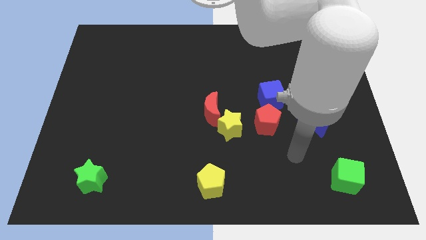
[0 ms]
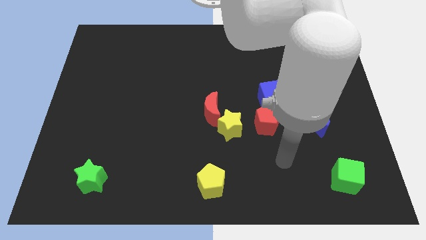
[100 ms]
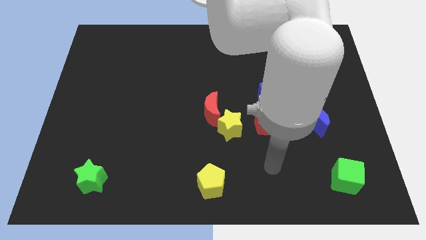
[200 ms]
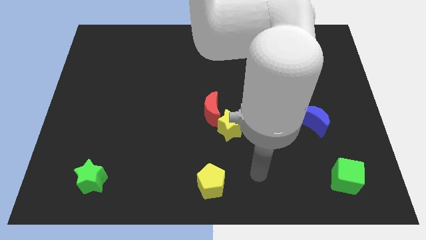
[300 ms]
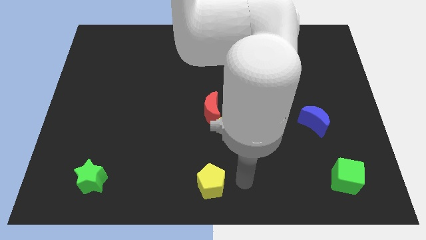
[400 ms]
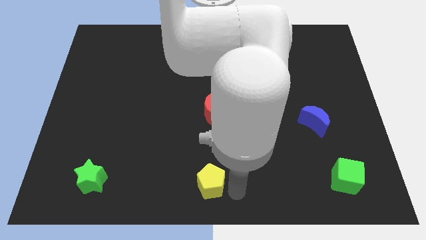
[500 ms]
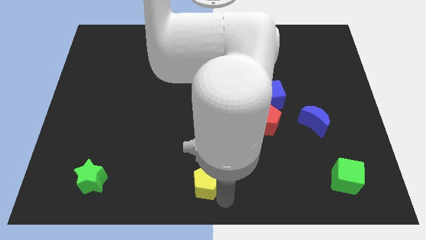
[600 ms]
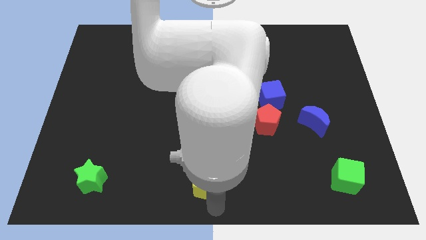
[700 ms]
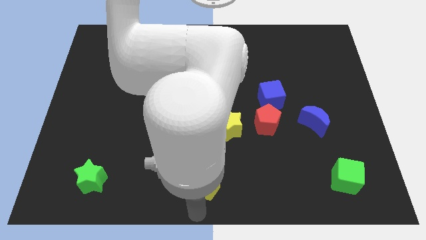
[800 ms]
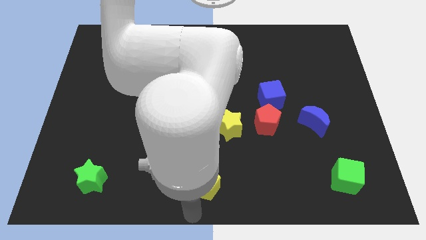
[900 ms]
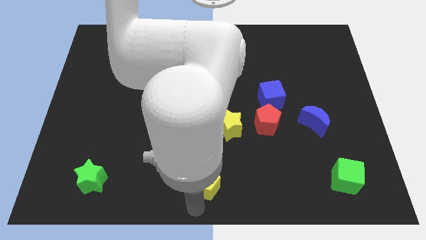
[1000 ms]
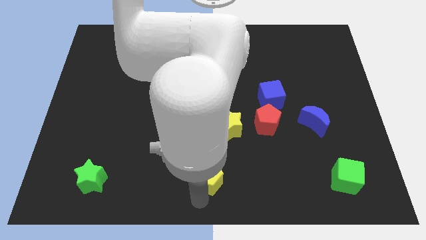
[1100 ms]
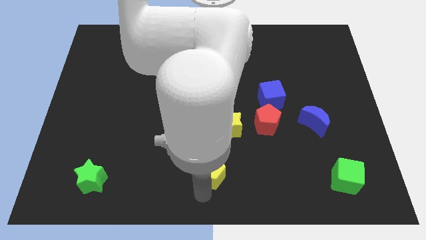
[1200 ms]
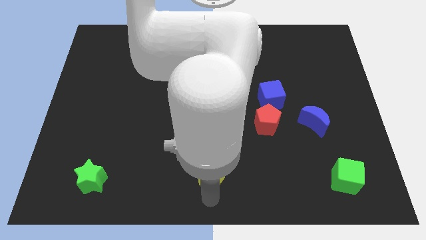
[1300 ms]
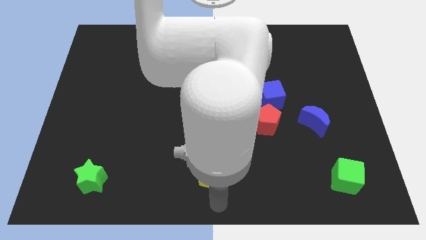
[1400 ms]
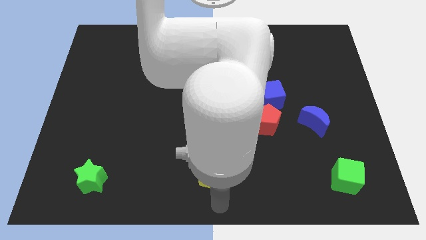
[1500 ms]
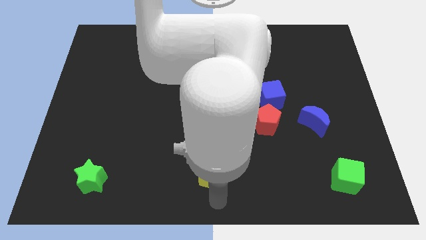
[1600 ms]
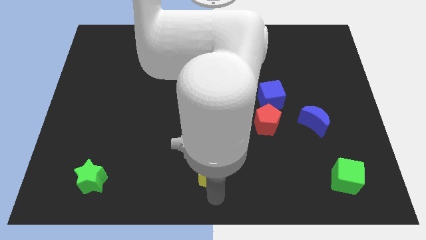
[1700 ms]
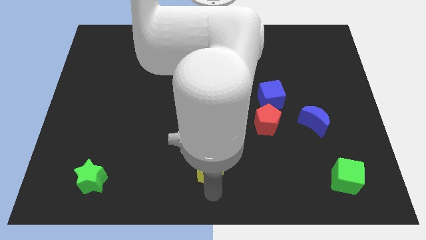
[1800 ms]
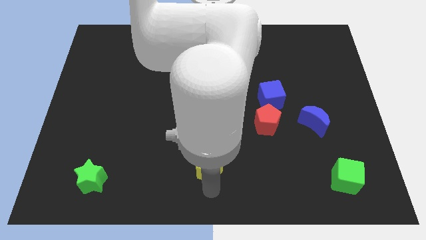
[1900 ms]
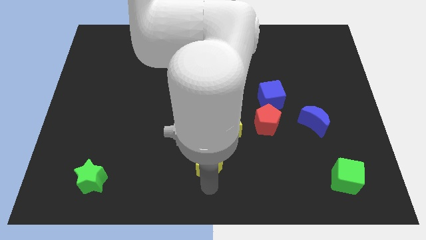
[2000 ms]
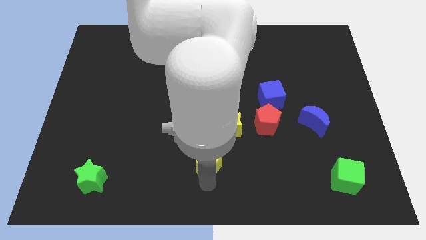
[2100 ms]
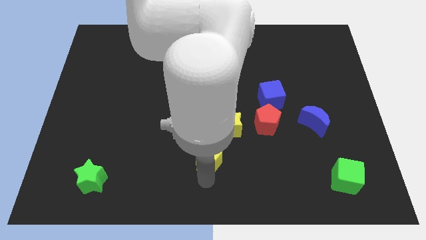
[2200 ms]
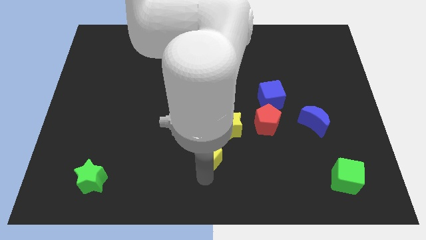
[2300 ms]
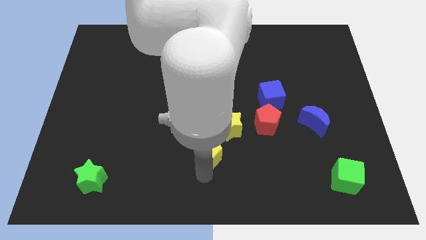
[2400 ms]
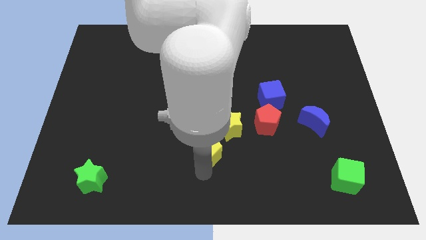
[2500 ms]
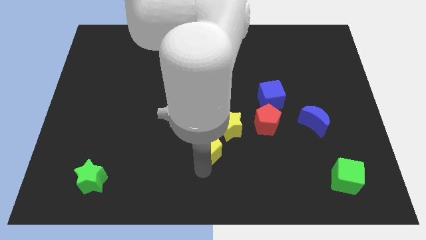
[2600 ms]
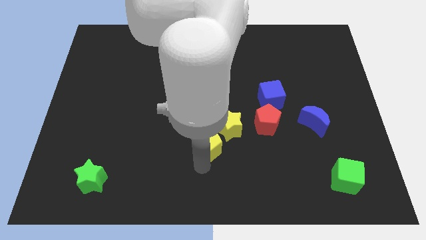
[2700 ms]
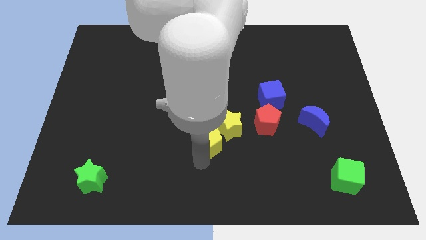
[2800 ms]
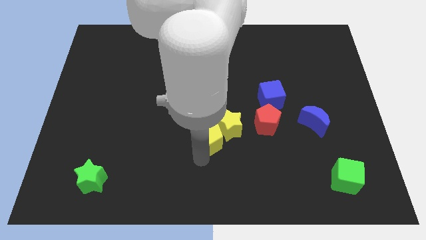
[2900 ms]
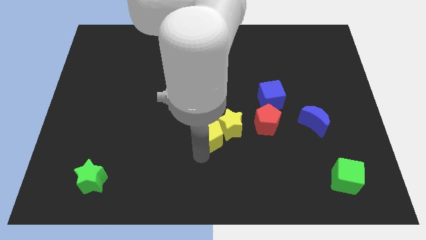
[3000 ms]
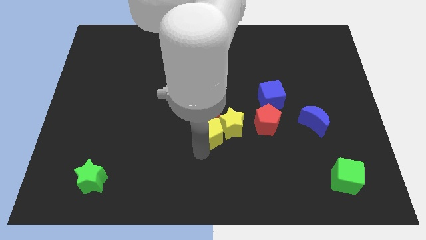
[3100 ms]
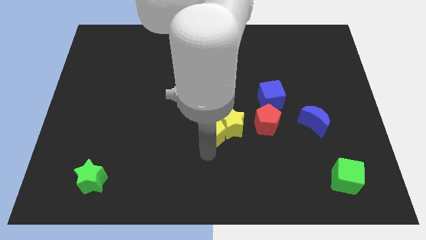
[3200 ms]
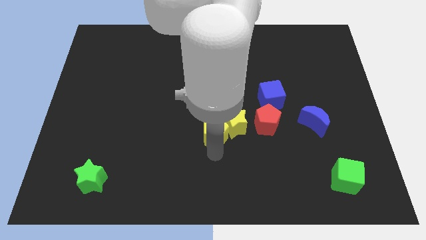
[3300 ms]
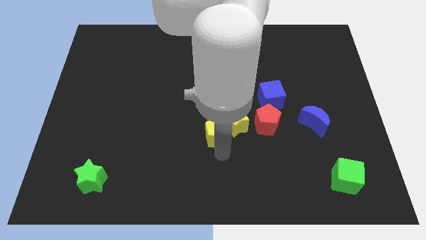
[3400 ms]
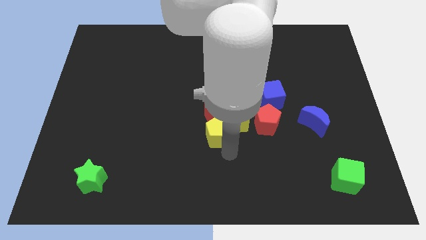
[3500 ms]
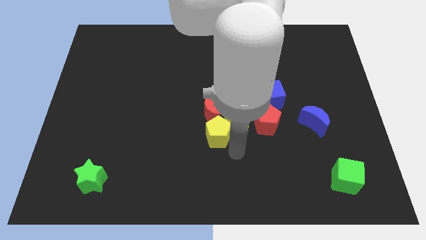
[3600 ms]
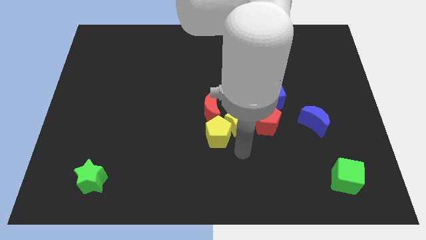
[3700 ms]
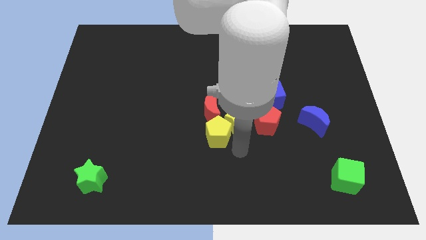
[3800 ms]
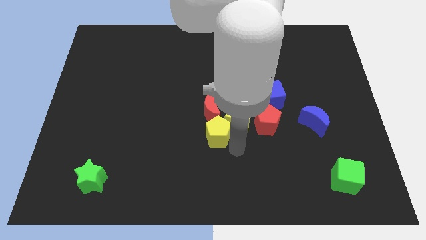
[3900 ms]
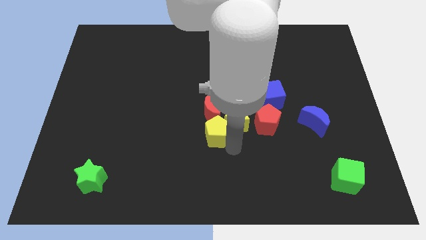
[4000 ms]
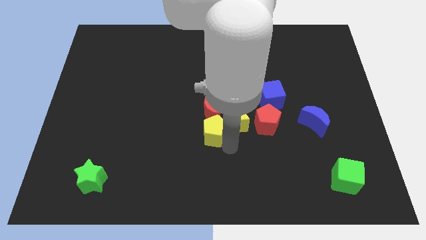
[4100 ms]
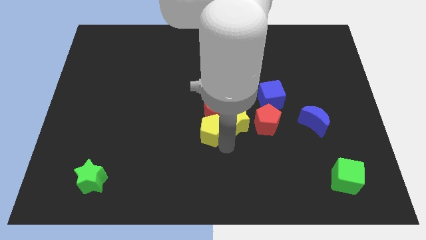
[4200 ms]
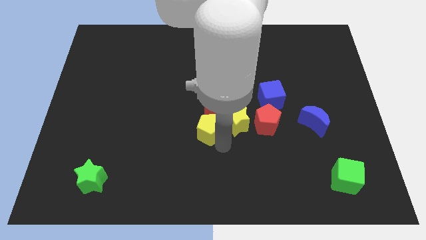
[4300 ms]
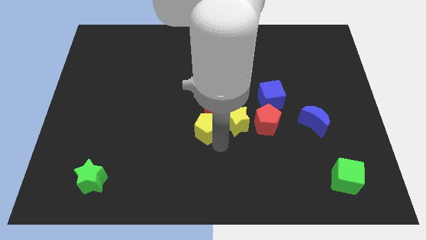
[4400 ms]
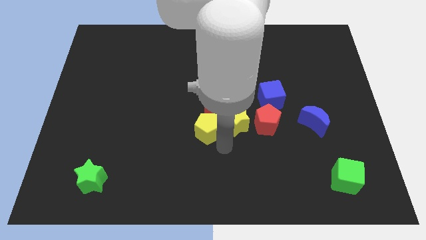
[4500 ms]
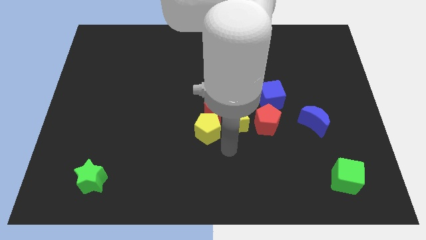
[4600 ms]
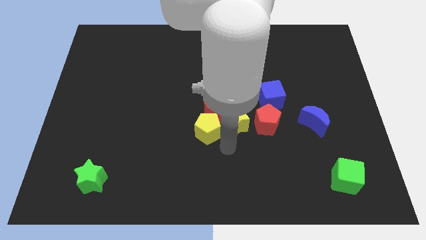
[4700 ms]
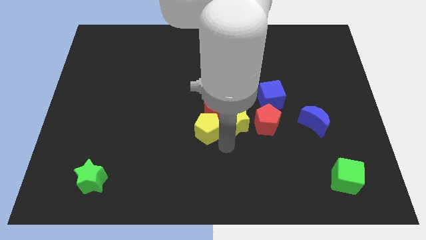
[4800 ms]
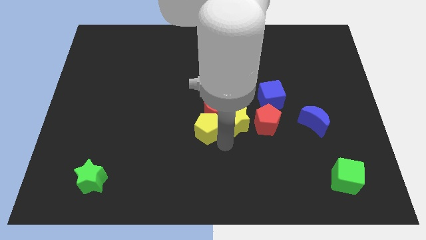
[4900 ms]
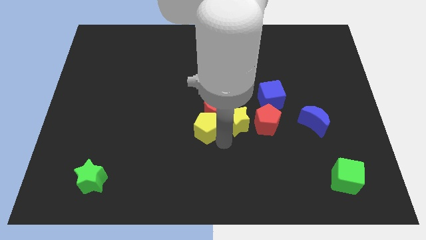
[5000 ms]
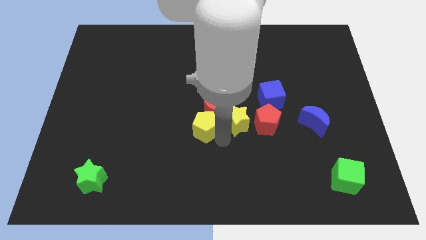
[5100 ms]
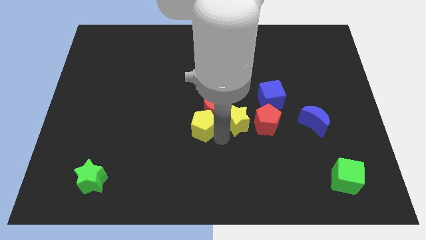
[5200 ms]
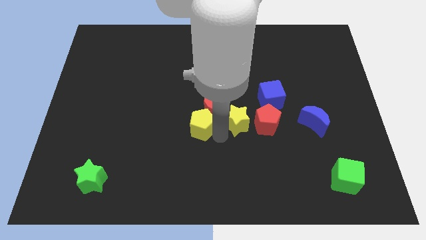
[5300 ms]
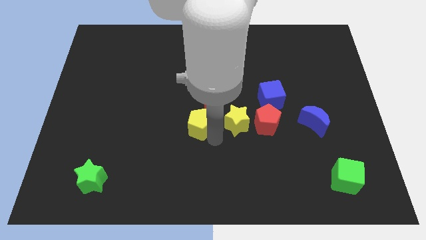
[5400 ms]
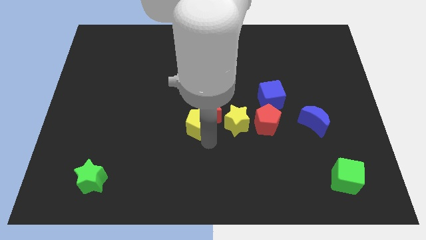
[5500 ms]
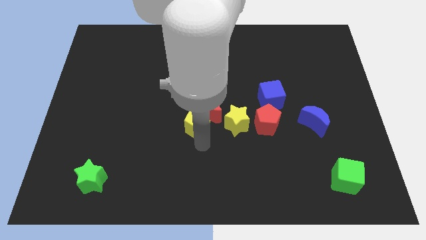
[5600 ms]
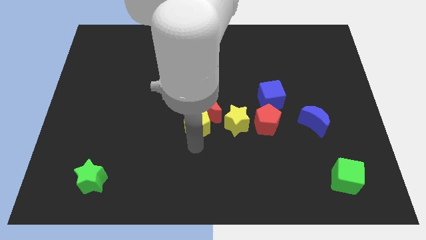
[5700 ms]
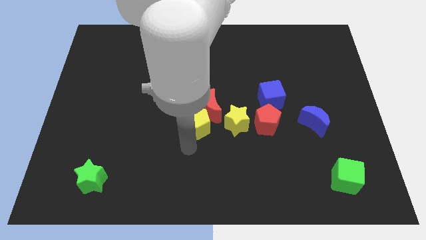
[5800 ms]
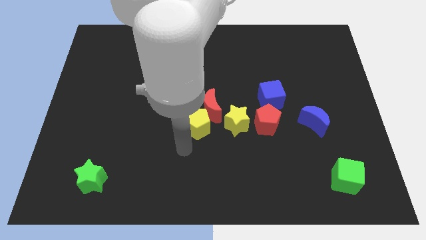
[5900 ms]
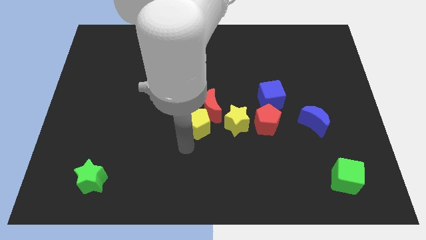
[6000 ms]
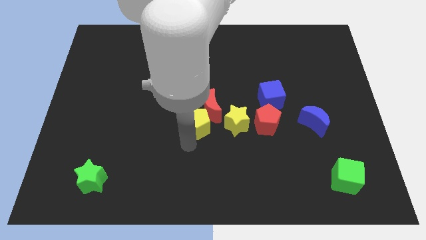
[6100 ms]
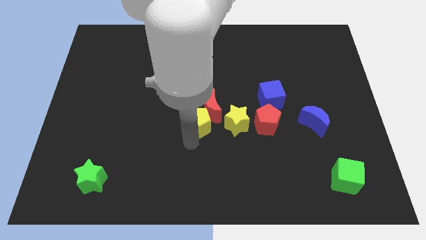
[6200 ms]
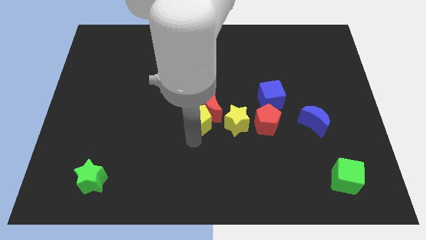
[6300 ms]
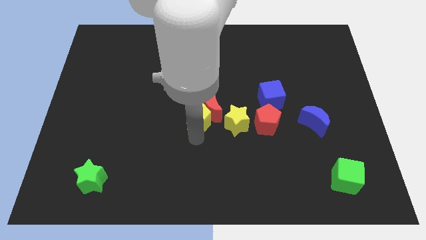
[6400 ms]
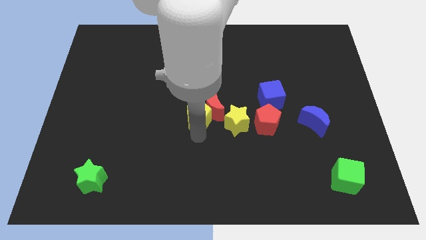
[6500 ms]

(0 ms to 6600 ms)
put the yellow pentagon to the top left side of the yellow star
